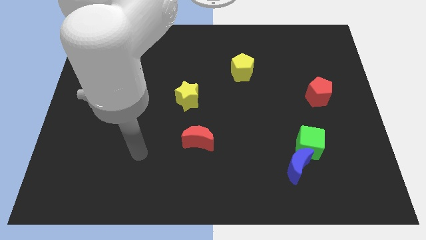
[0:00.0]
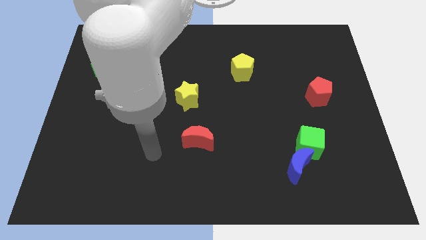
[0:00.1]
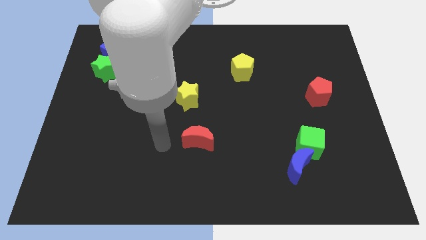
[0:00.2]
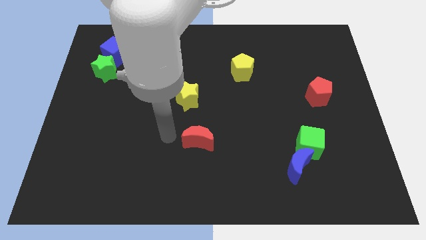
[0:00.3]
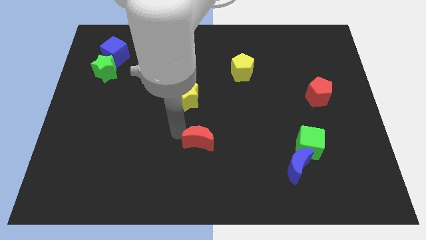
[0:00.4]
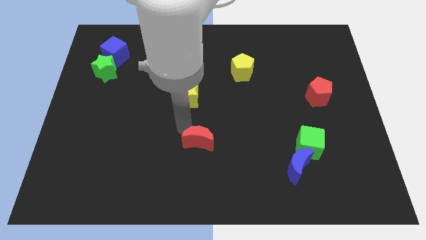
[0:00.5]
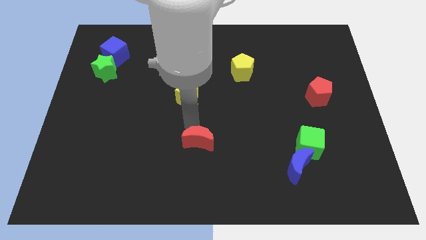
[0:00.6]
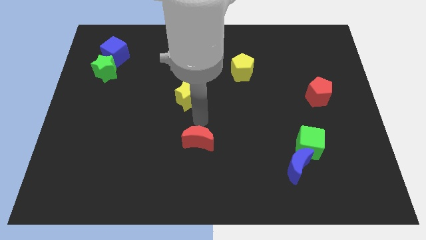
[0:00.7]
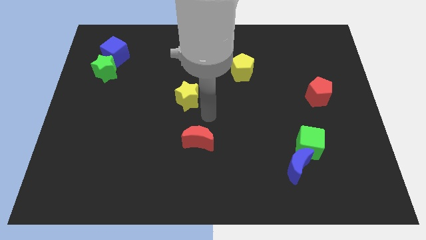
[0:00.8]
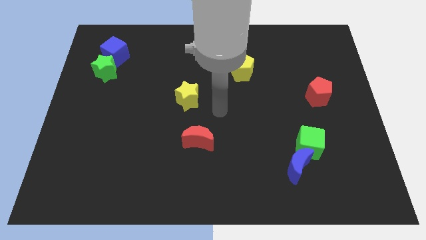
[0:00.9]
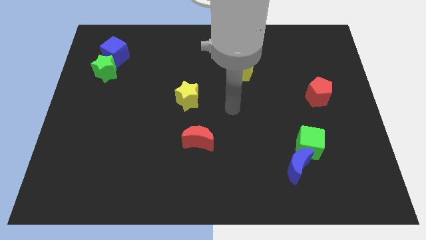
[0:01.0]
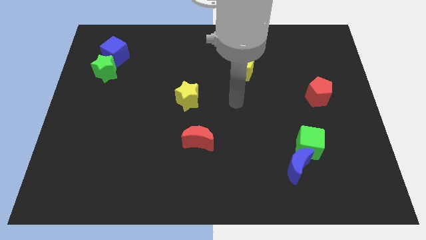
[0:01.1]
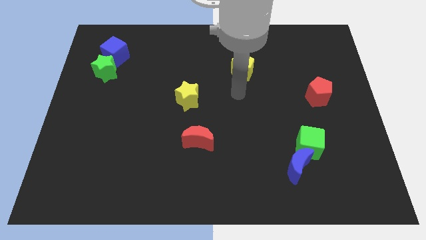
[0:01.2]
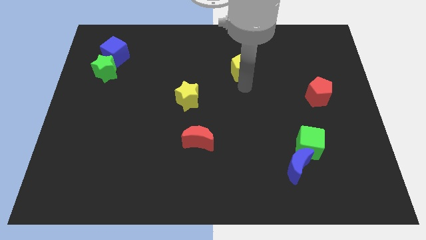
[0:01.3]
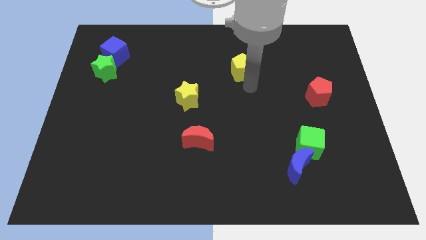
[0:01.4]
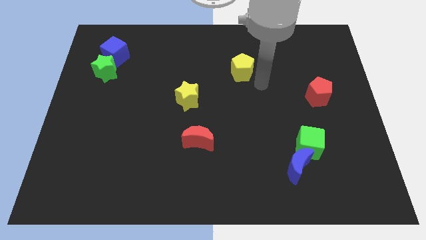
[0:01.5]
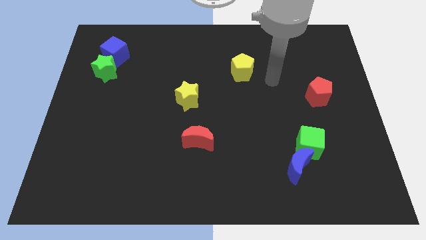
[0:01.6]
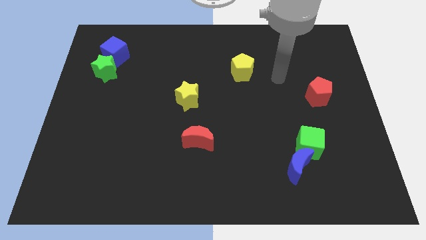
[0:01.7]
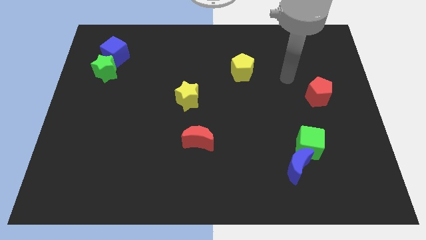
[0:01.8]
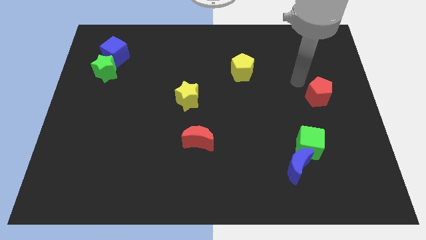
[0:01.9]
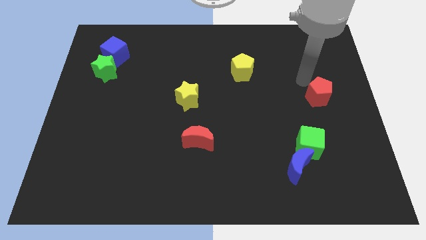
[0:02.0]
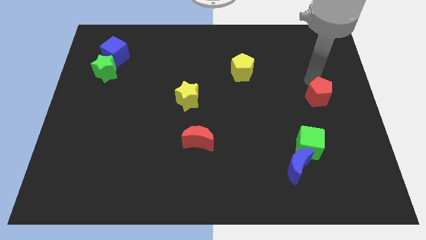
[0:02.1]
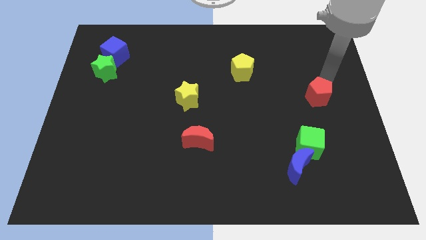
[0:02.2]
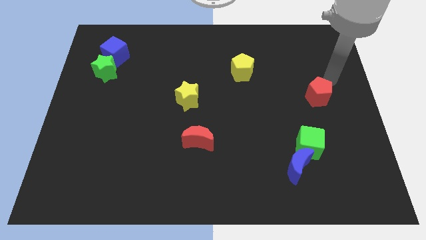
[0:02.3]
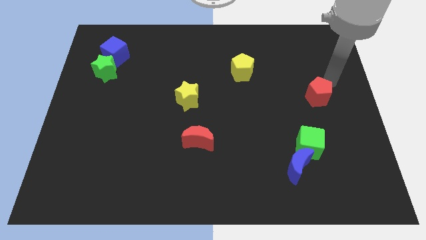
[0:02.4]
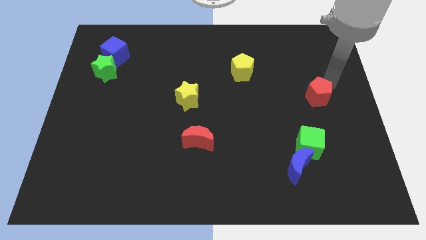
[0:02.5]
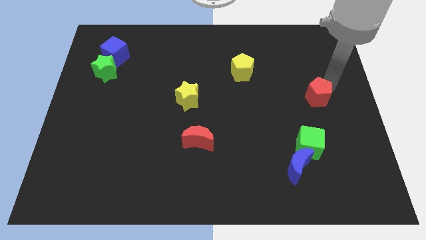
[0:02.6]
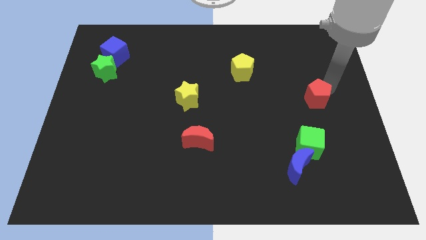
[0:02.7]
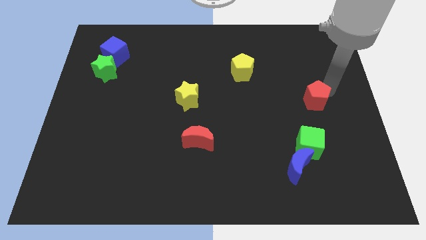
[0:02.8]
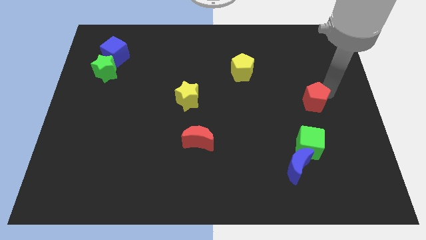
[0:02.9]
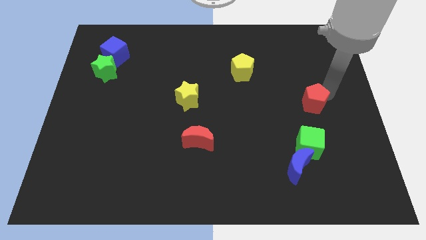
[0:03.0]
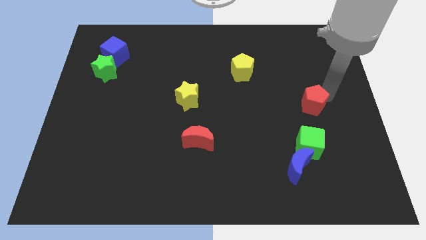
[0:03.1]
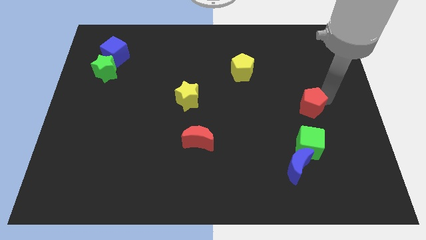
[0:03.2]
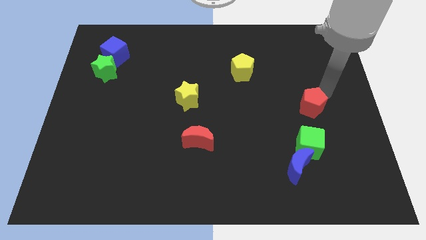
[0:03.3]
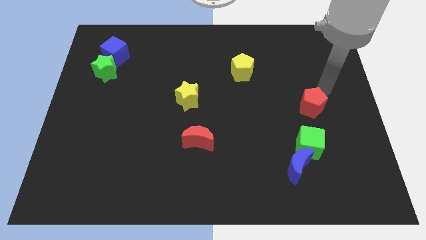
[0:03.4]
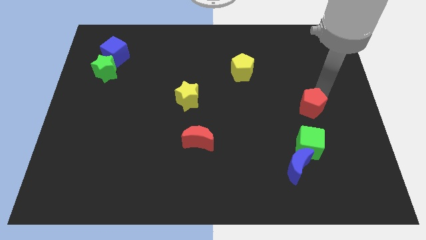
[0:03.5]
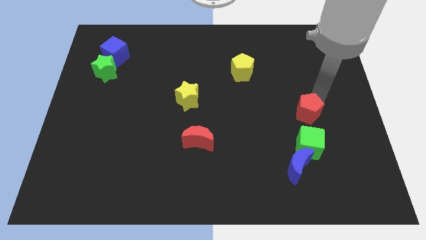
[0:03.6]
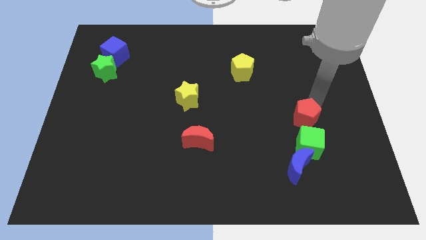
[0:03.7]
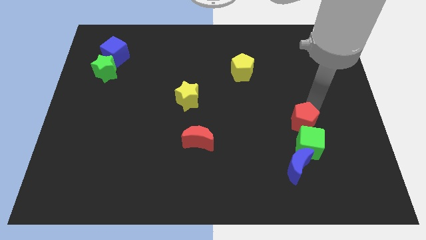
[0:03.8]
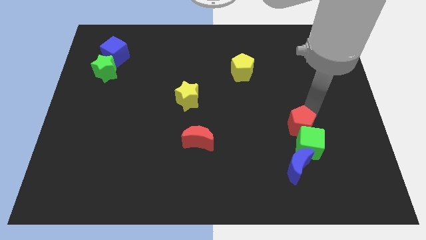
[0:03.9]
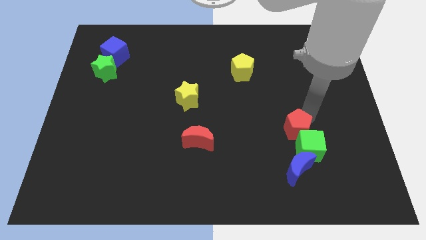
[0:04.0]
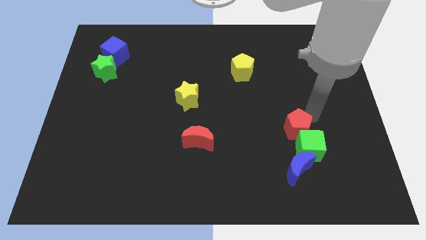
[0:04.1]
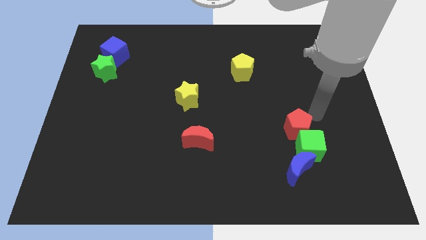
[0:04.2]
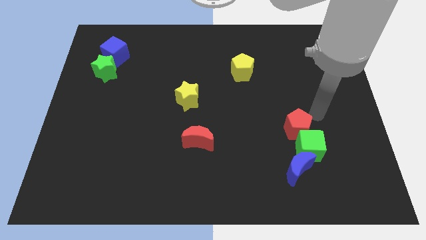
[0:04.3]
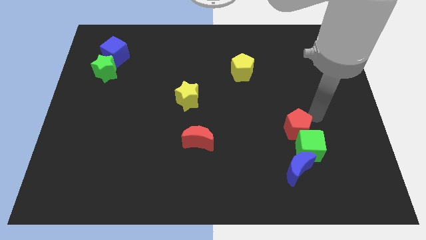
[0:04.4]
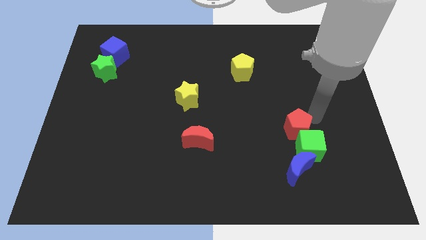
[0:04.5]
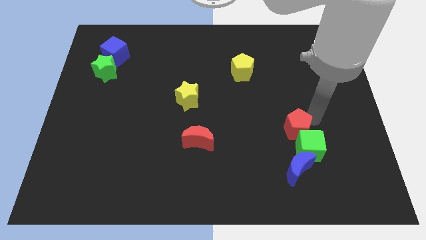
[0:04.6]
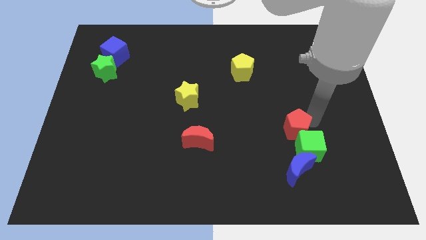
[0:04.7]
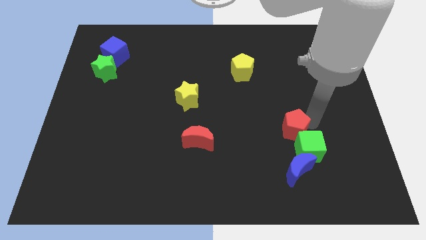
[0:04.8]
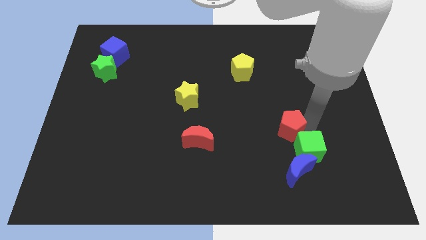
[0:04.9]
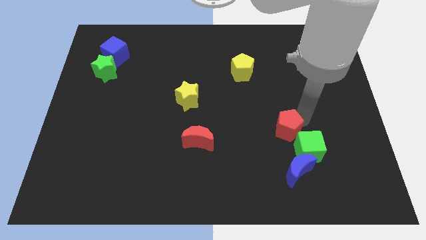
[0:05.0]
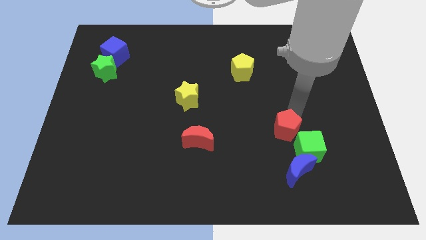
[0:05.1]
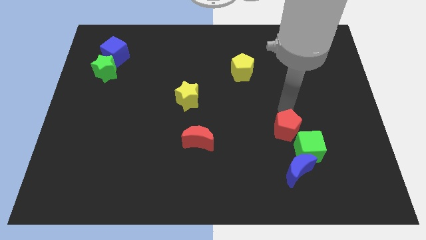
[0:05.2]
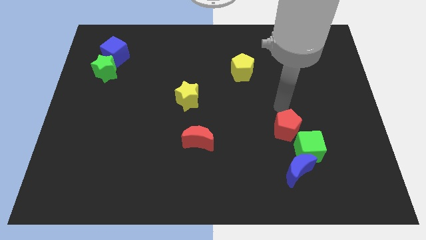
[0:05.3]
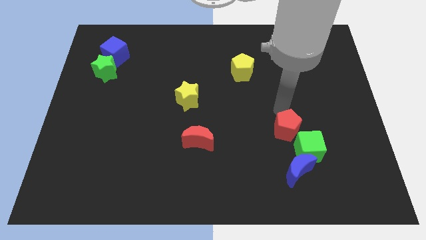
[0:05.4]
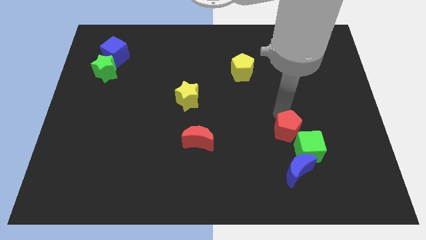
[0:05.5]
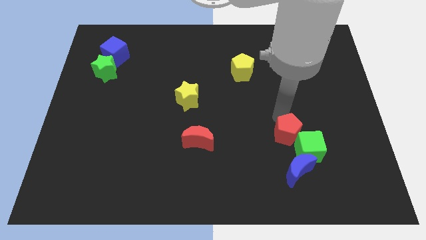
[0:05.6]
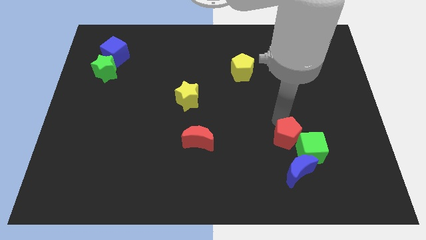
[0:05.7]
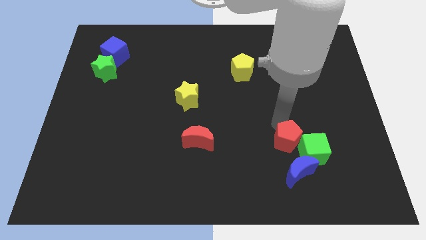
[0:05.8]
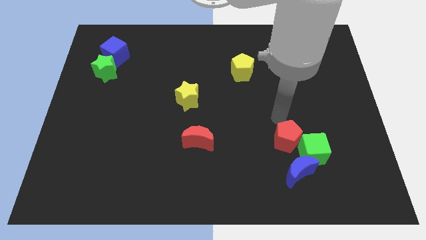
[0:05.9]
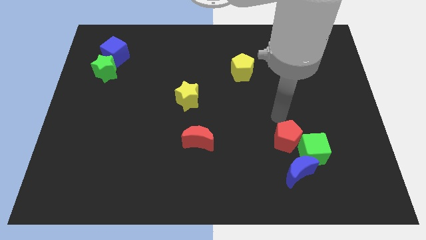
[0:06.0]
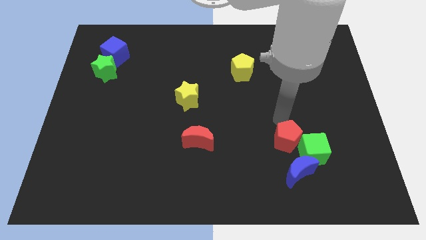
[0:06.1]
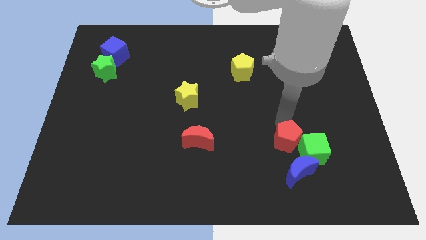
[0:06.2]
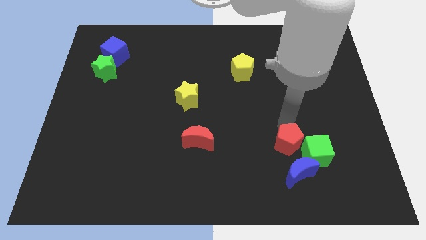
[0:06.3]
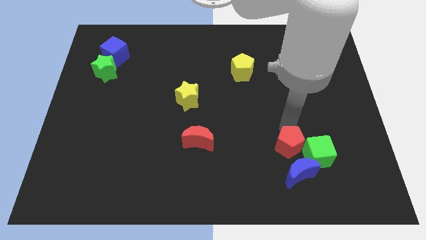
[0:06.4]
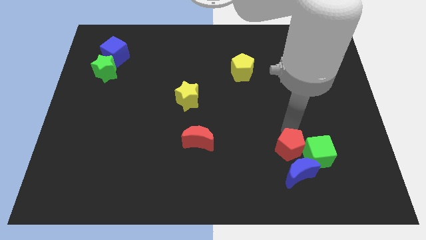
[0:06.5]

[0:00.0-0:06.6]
slide the red pentagon to the blue moon
